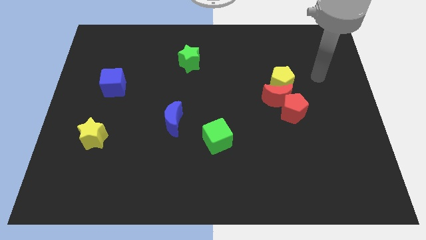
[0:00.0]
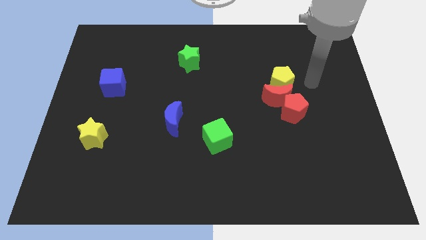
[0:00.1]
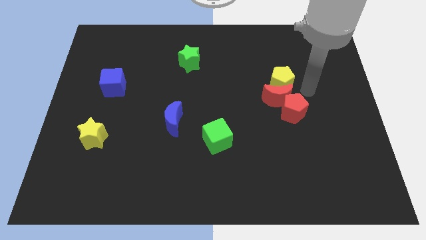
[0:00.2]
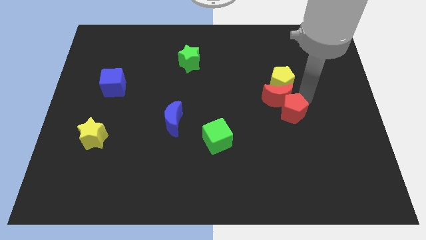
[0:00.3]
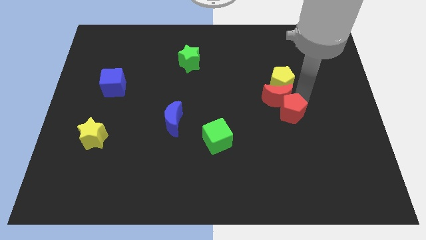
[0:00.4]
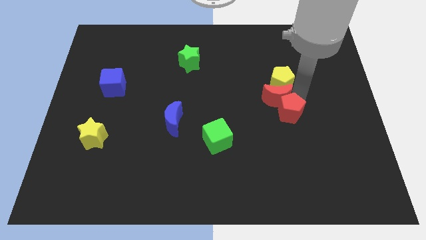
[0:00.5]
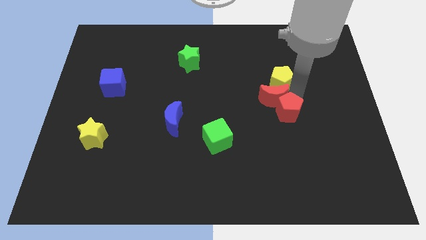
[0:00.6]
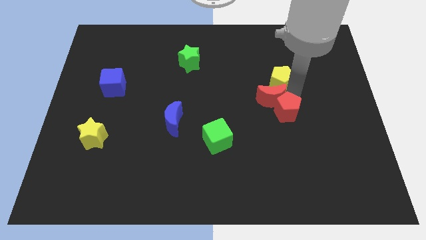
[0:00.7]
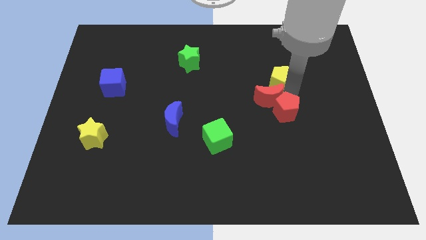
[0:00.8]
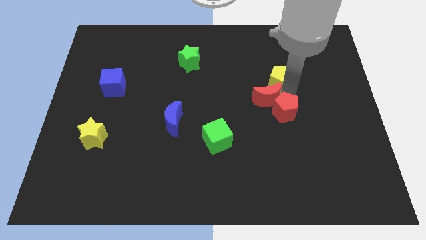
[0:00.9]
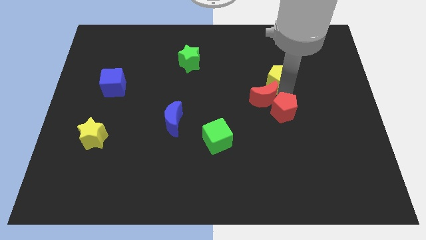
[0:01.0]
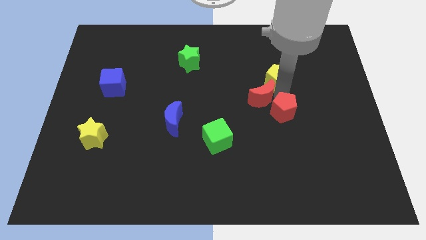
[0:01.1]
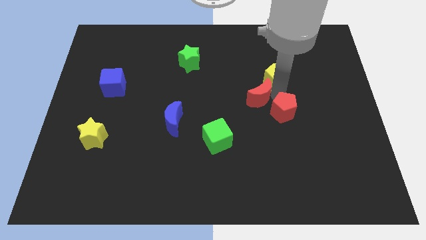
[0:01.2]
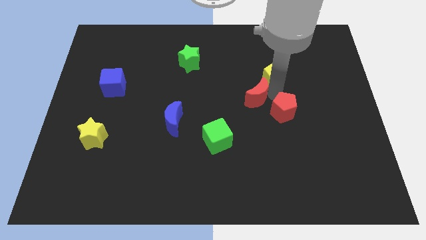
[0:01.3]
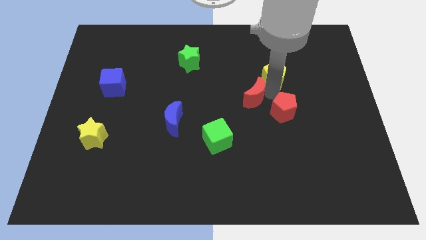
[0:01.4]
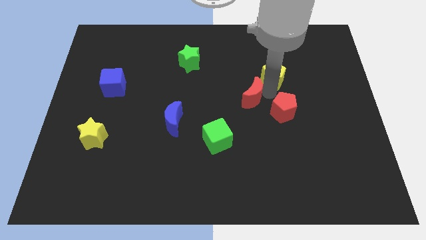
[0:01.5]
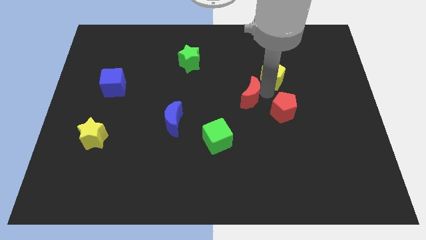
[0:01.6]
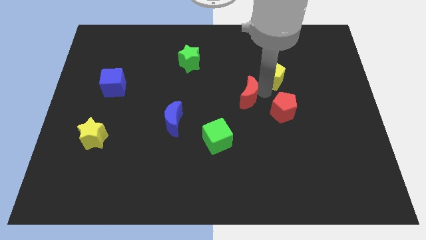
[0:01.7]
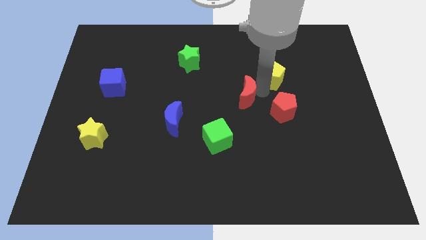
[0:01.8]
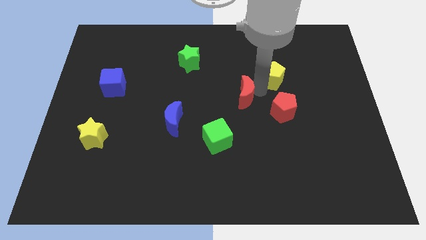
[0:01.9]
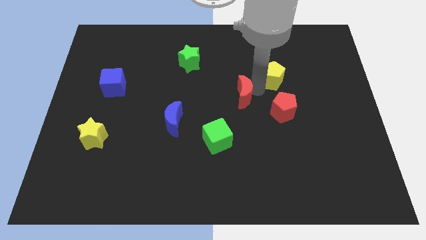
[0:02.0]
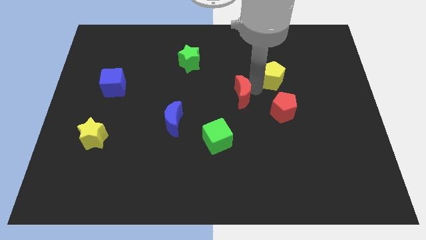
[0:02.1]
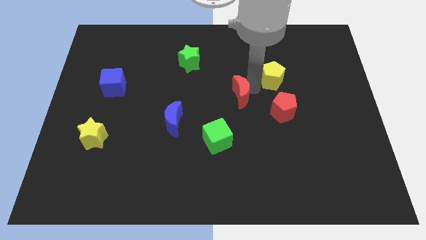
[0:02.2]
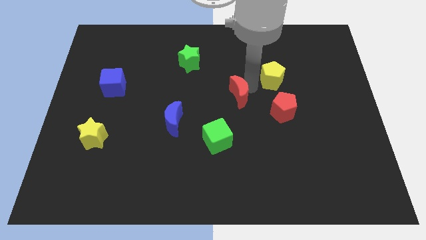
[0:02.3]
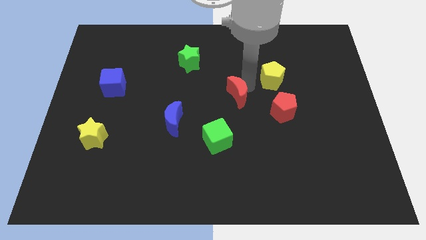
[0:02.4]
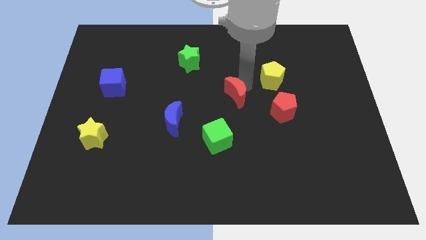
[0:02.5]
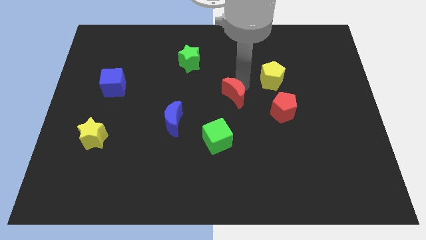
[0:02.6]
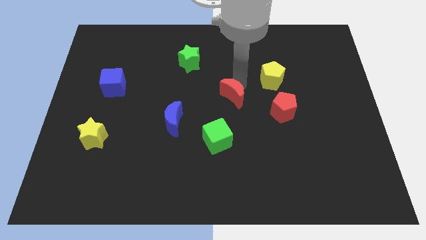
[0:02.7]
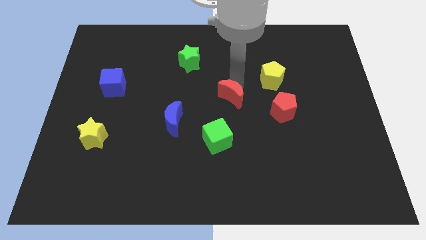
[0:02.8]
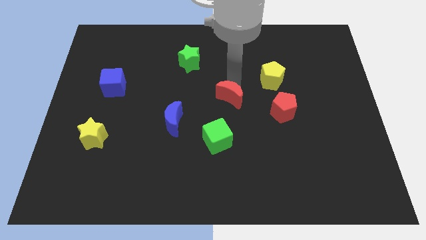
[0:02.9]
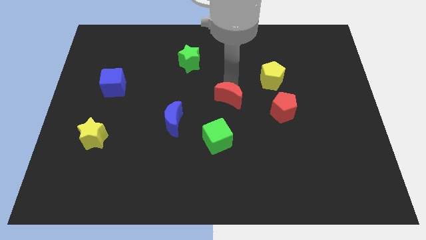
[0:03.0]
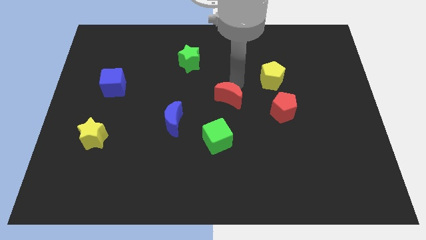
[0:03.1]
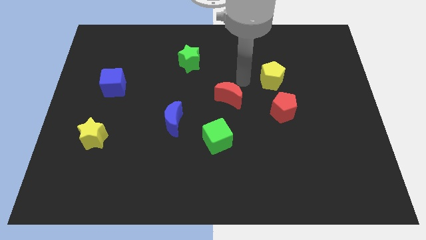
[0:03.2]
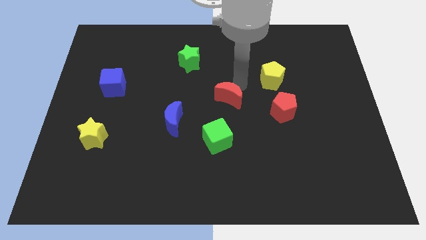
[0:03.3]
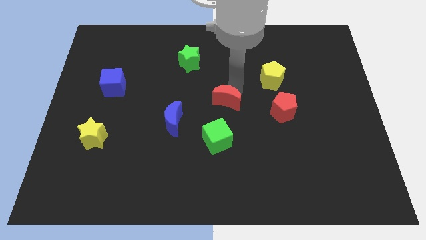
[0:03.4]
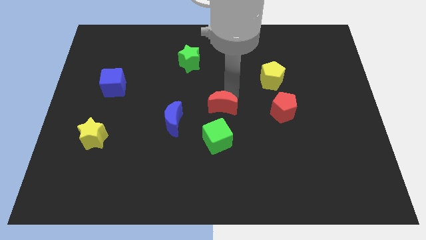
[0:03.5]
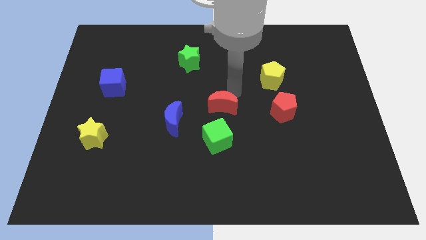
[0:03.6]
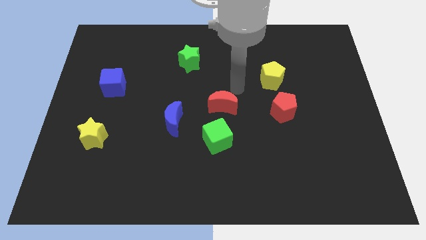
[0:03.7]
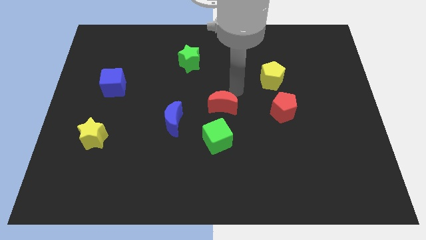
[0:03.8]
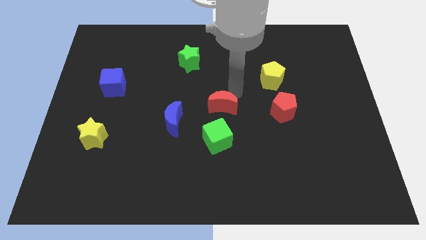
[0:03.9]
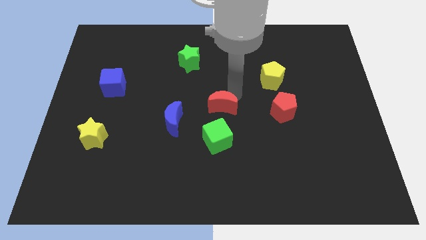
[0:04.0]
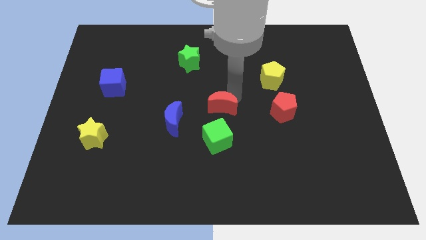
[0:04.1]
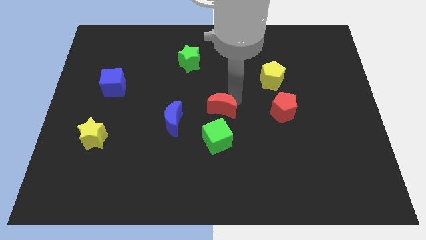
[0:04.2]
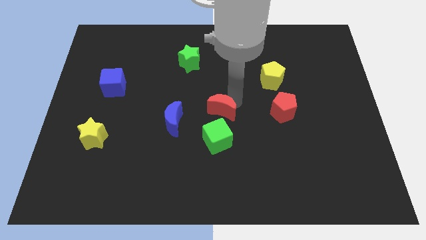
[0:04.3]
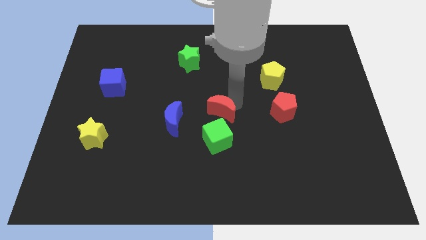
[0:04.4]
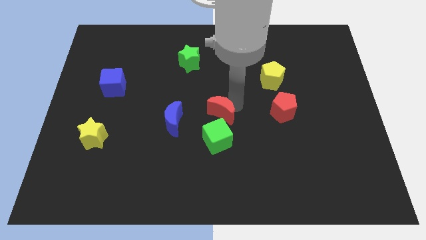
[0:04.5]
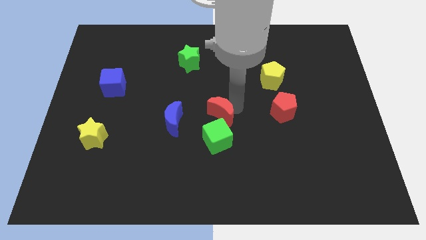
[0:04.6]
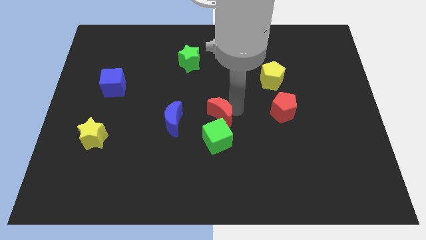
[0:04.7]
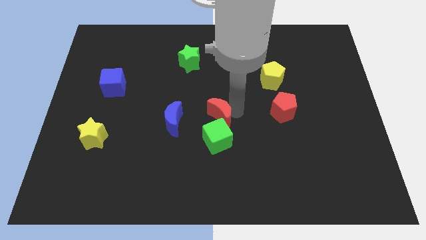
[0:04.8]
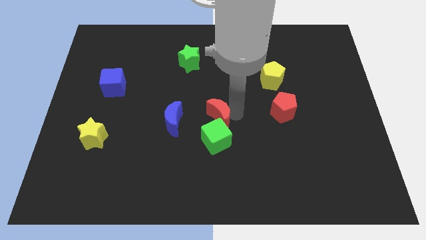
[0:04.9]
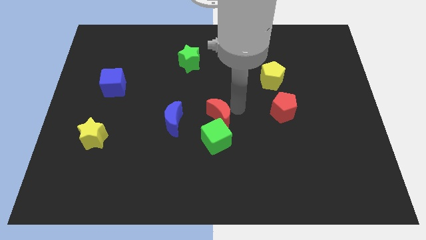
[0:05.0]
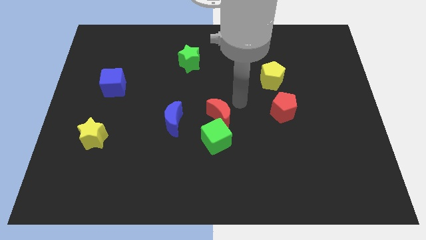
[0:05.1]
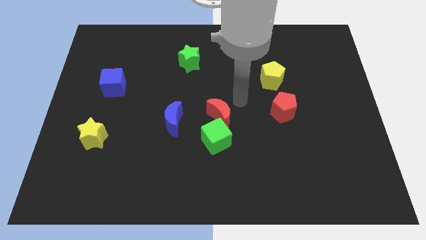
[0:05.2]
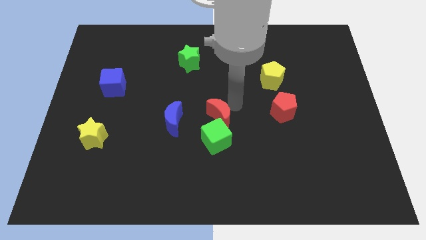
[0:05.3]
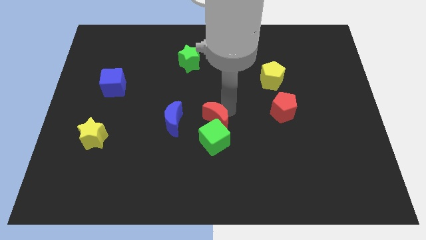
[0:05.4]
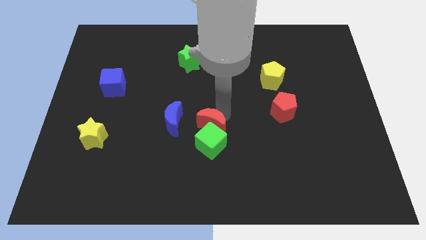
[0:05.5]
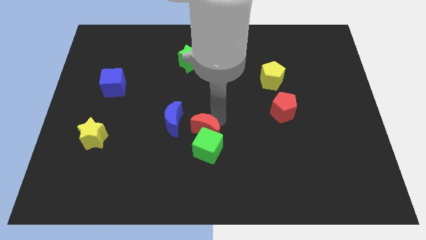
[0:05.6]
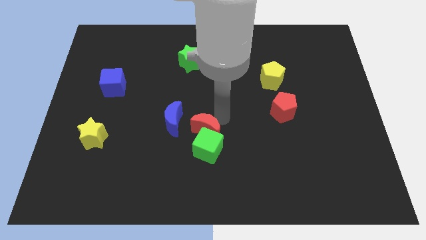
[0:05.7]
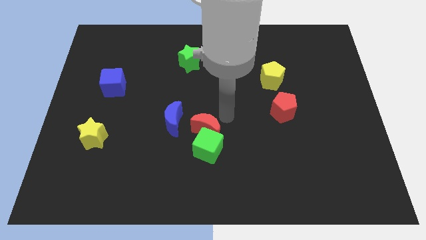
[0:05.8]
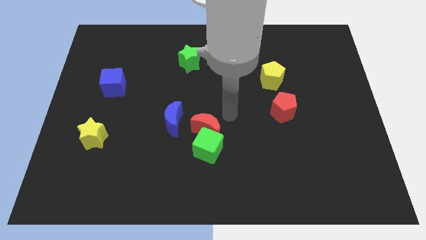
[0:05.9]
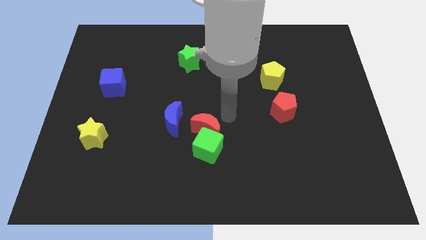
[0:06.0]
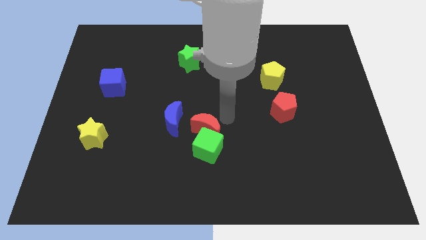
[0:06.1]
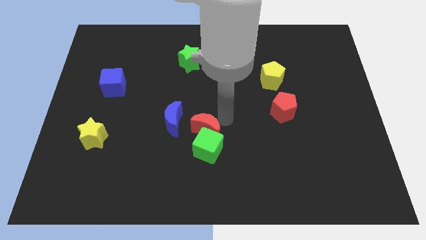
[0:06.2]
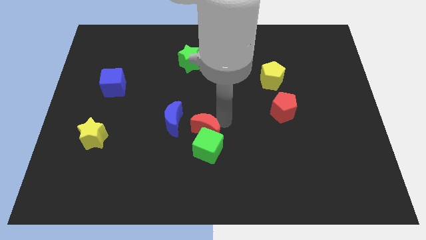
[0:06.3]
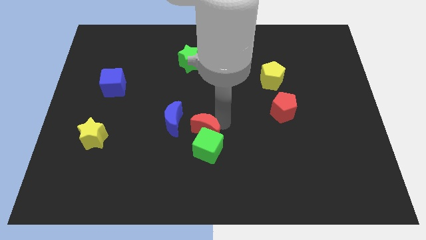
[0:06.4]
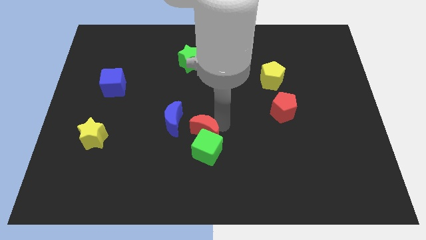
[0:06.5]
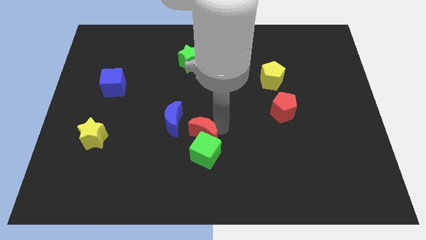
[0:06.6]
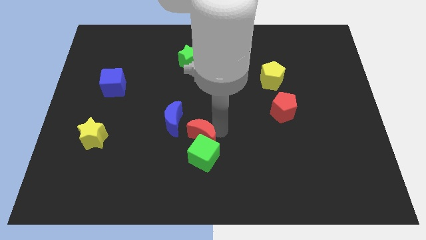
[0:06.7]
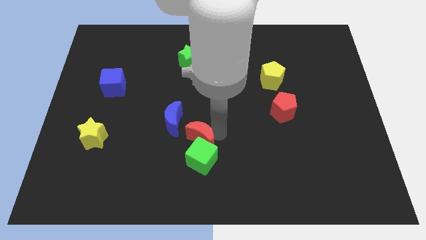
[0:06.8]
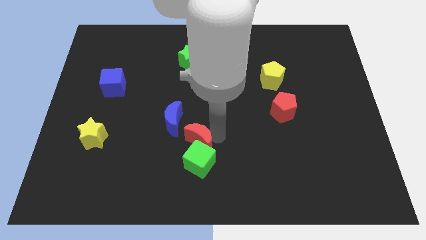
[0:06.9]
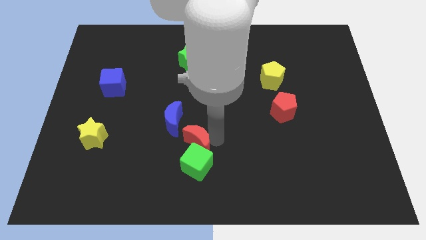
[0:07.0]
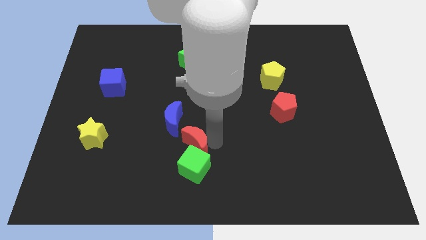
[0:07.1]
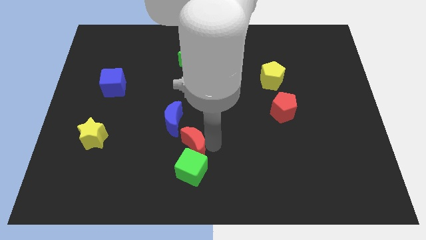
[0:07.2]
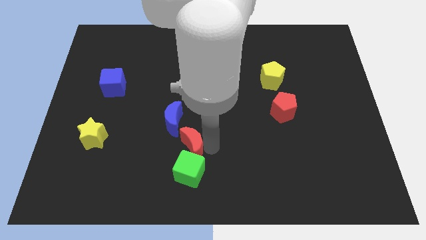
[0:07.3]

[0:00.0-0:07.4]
move the red moon below the blue moon
